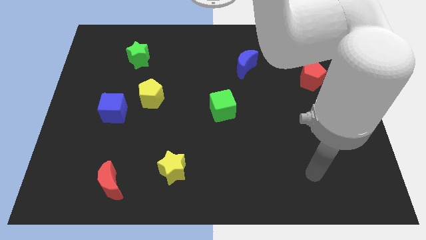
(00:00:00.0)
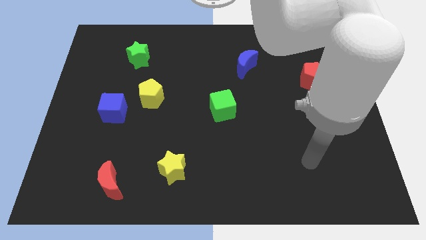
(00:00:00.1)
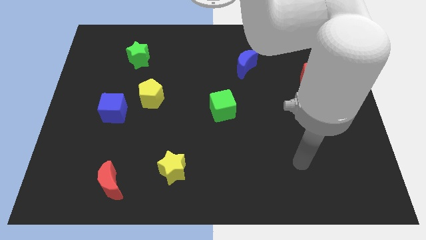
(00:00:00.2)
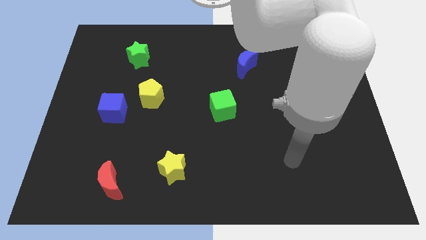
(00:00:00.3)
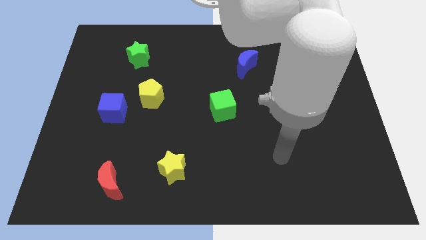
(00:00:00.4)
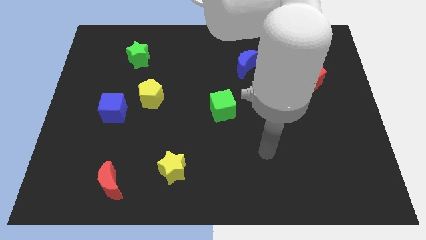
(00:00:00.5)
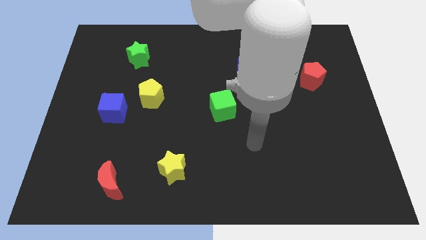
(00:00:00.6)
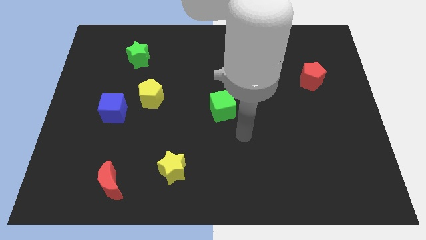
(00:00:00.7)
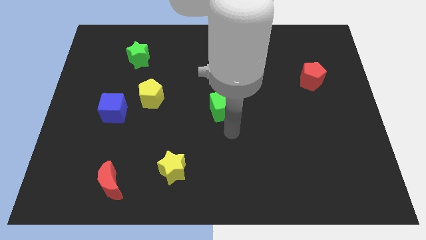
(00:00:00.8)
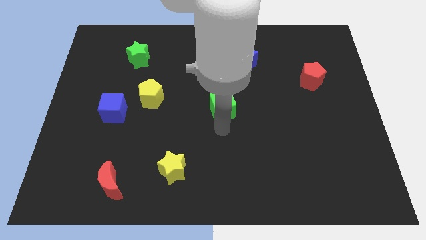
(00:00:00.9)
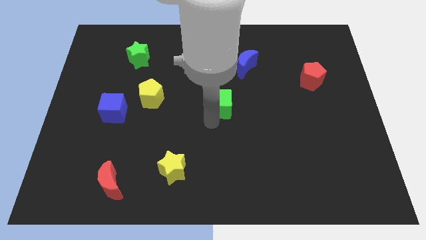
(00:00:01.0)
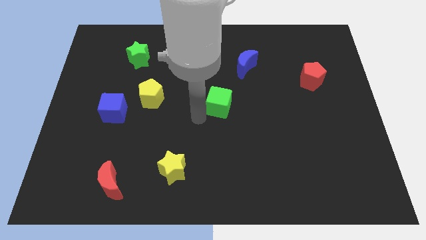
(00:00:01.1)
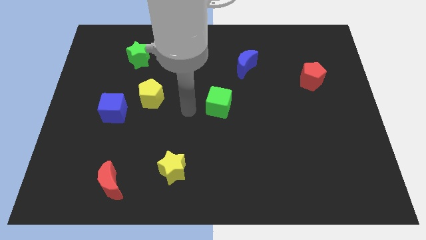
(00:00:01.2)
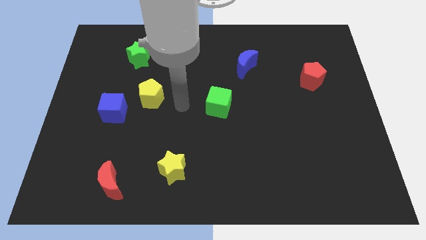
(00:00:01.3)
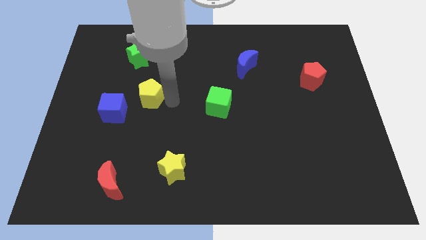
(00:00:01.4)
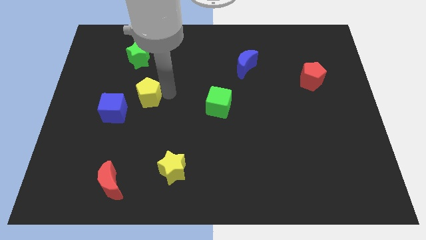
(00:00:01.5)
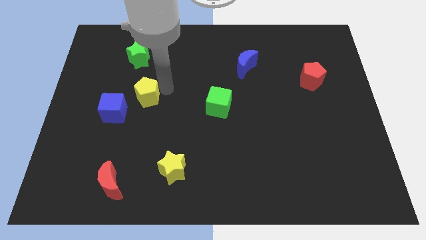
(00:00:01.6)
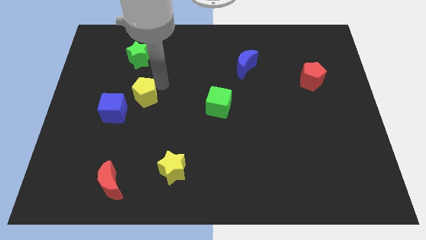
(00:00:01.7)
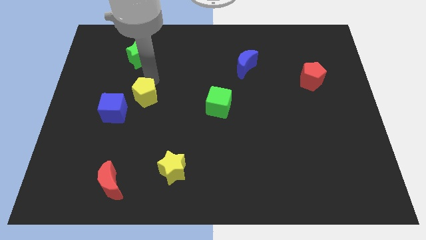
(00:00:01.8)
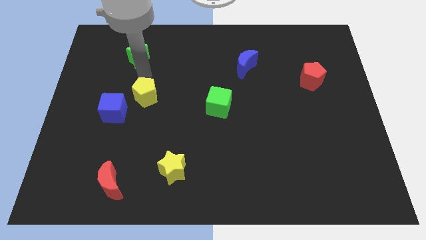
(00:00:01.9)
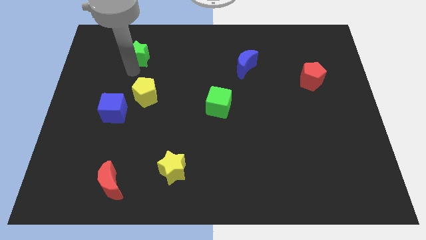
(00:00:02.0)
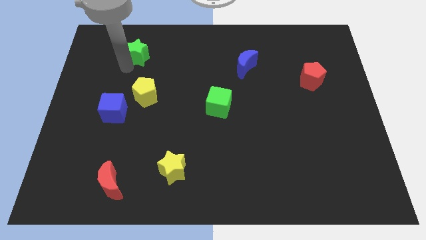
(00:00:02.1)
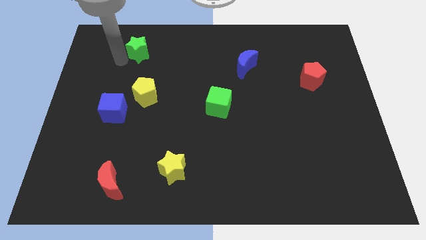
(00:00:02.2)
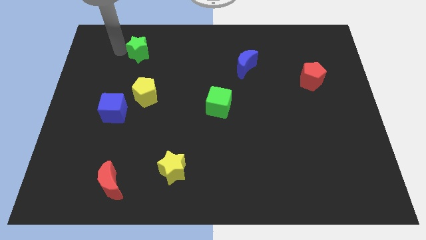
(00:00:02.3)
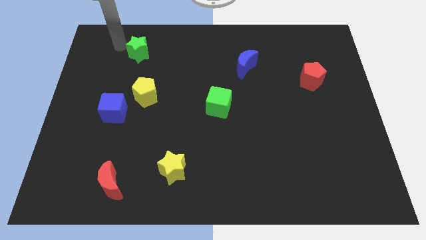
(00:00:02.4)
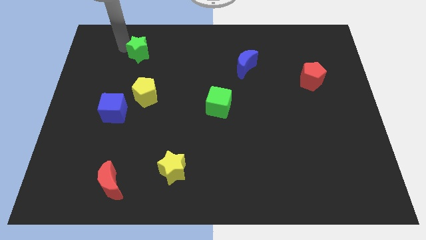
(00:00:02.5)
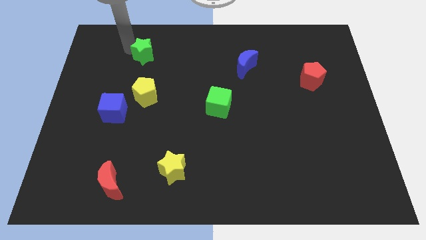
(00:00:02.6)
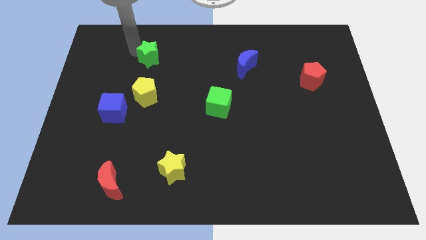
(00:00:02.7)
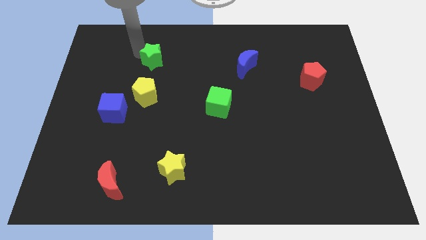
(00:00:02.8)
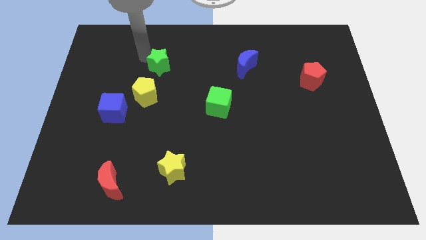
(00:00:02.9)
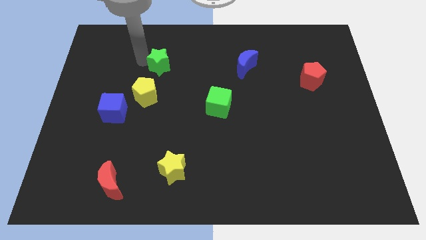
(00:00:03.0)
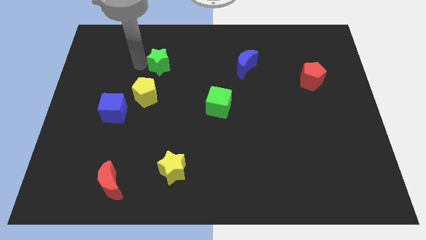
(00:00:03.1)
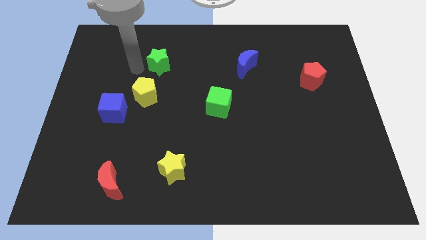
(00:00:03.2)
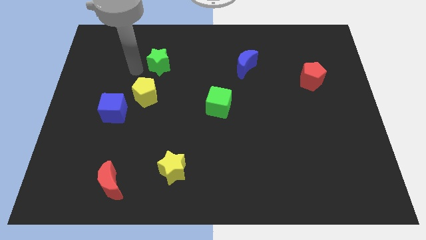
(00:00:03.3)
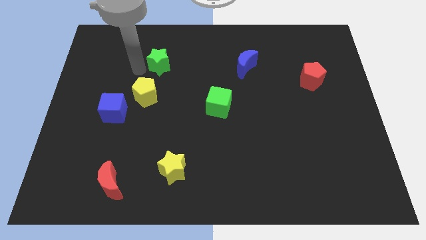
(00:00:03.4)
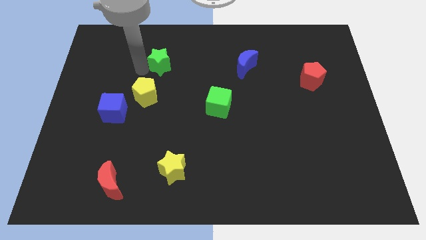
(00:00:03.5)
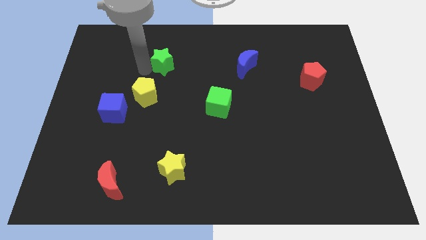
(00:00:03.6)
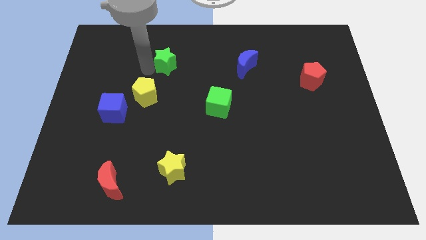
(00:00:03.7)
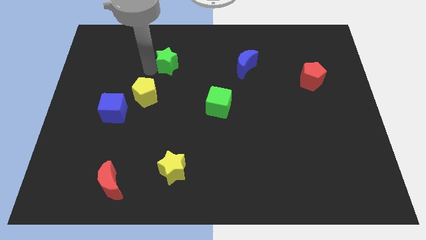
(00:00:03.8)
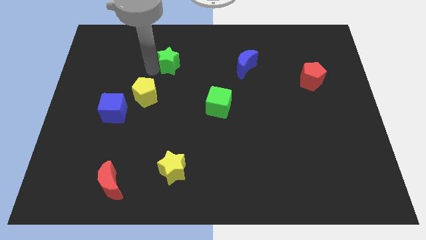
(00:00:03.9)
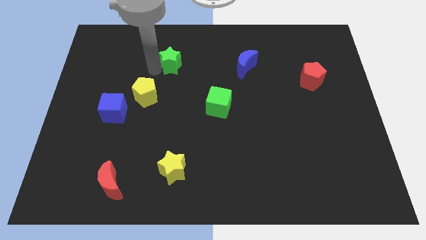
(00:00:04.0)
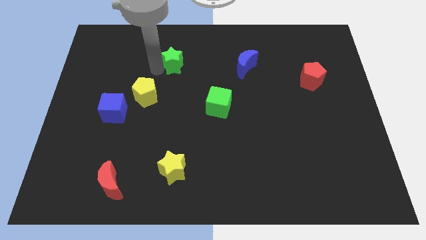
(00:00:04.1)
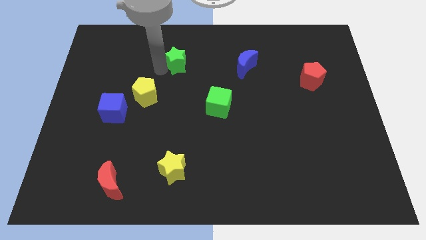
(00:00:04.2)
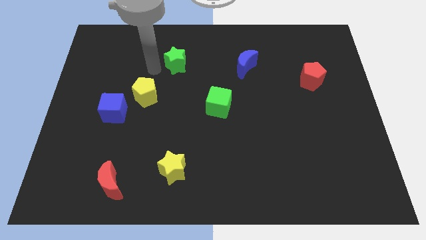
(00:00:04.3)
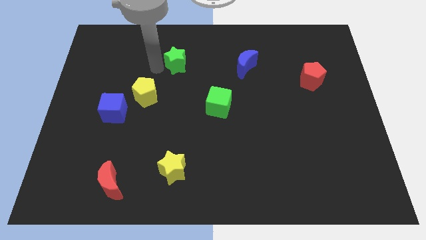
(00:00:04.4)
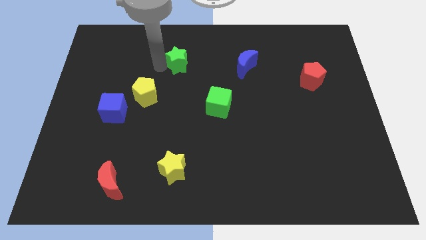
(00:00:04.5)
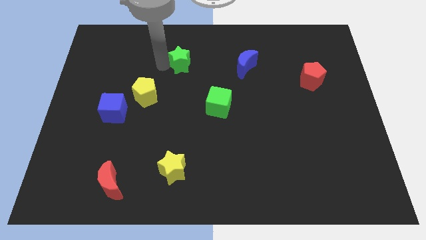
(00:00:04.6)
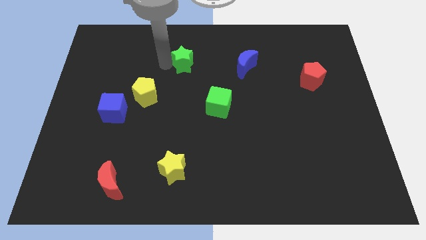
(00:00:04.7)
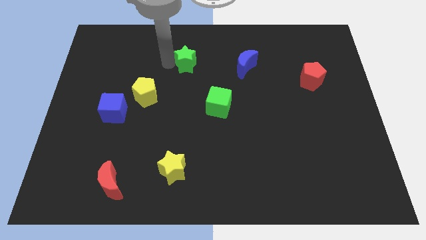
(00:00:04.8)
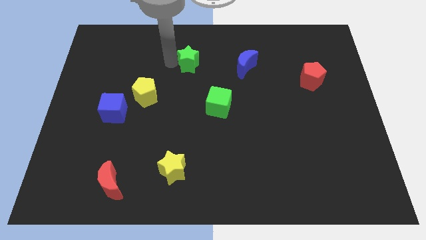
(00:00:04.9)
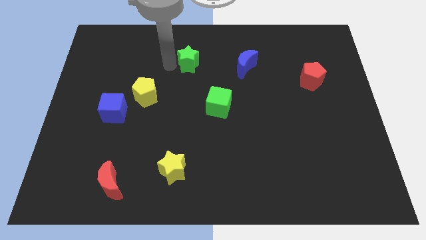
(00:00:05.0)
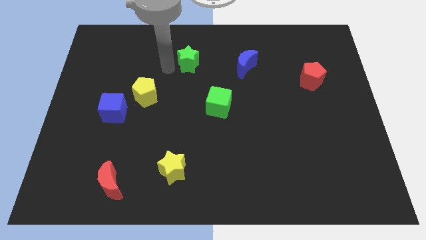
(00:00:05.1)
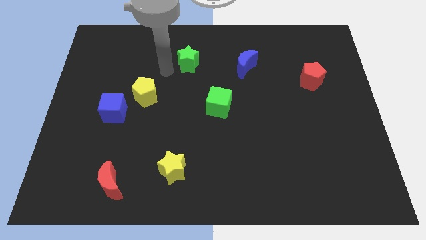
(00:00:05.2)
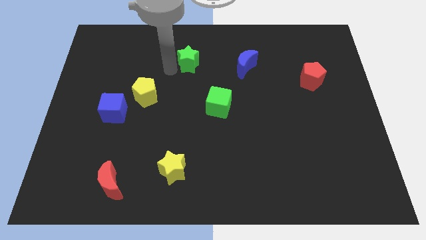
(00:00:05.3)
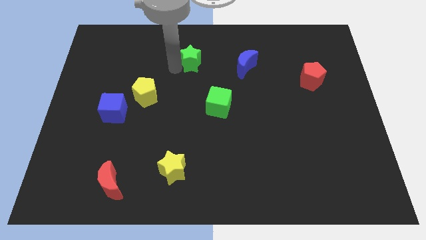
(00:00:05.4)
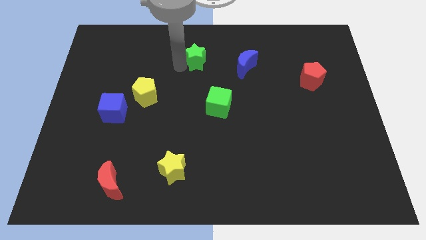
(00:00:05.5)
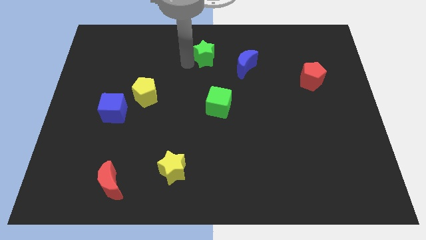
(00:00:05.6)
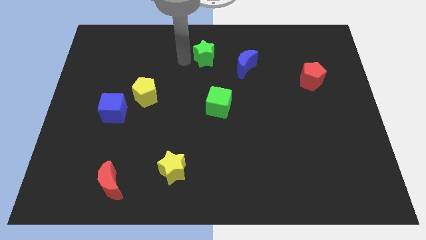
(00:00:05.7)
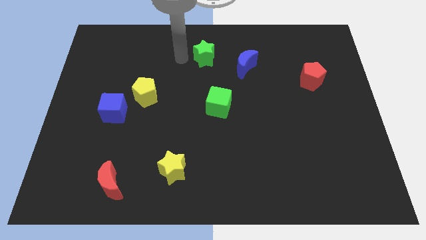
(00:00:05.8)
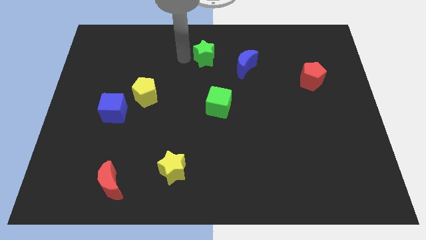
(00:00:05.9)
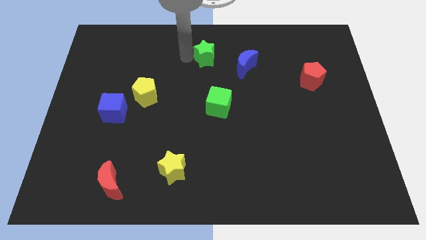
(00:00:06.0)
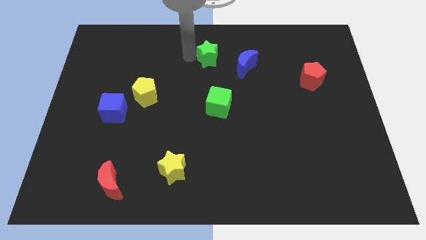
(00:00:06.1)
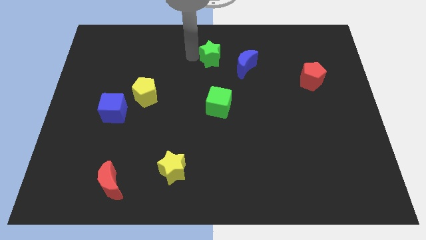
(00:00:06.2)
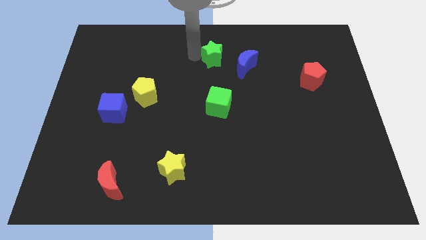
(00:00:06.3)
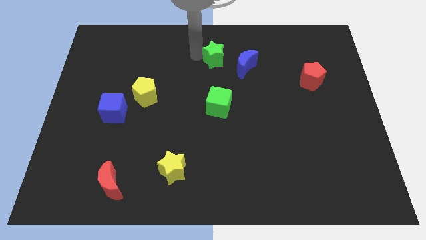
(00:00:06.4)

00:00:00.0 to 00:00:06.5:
push the green star to the right

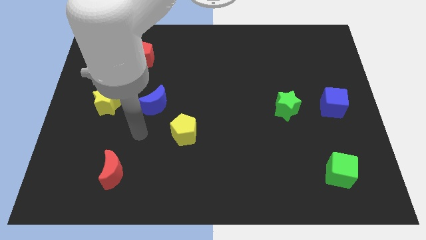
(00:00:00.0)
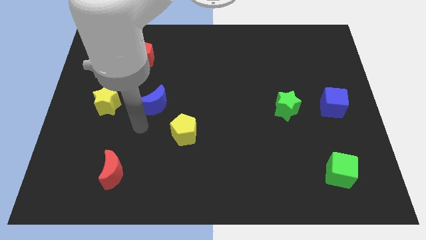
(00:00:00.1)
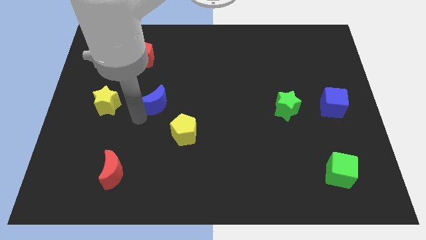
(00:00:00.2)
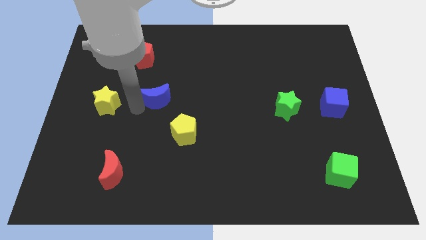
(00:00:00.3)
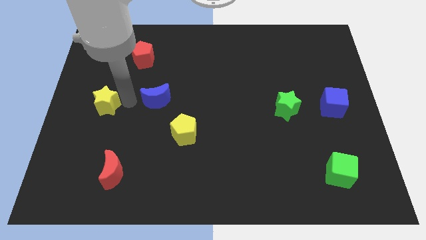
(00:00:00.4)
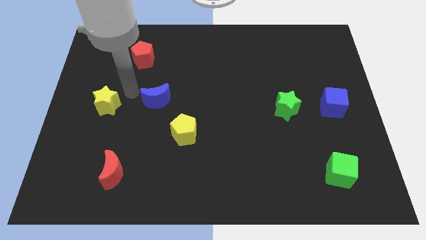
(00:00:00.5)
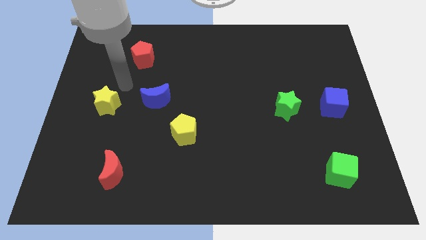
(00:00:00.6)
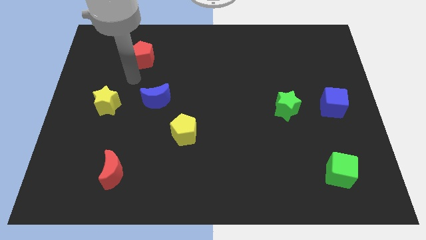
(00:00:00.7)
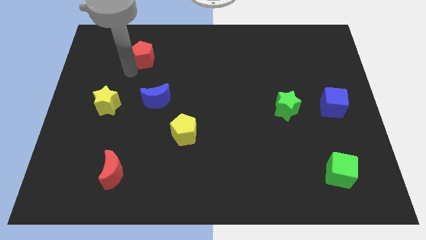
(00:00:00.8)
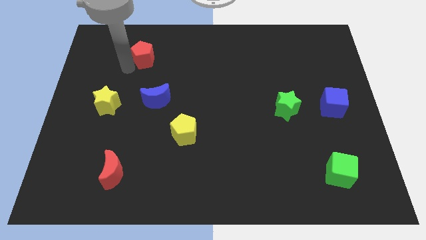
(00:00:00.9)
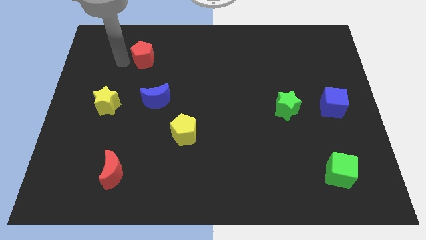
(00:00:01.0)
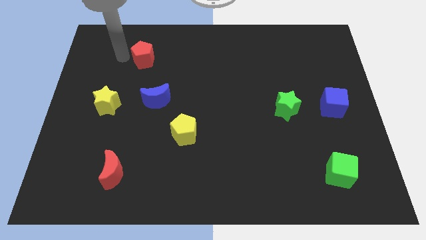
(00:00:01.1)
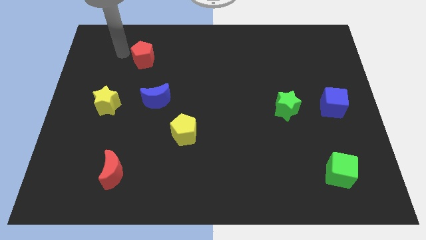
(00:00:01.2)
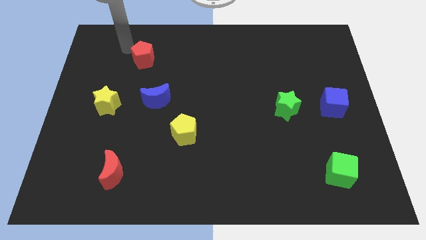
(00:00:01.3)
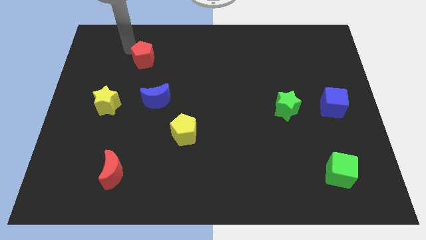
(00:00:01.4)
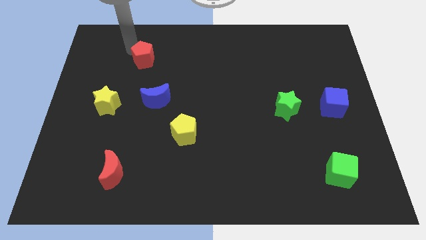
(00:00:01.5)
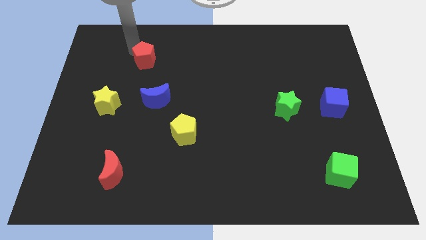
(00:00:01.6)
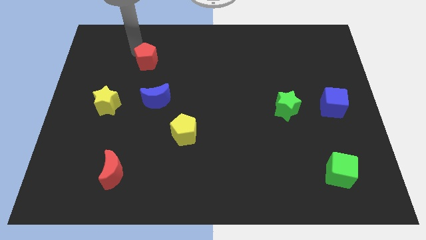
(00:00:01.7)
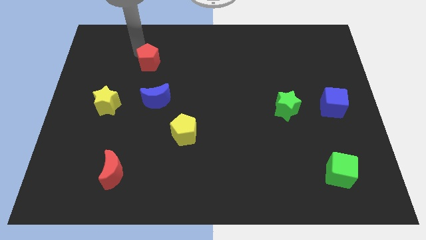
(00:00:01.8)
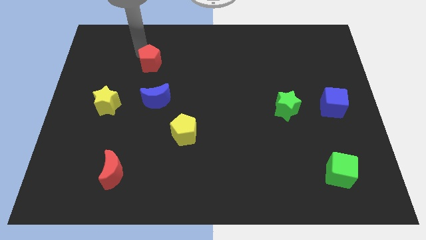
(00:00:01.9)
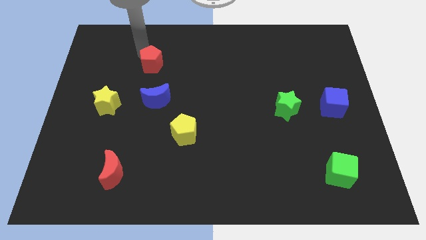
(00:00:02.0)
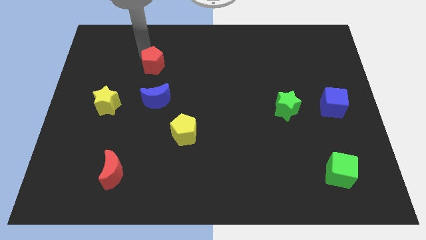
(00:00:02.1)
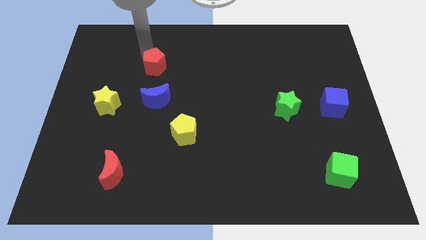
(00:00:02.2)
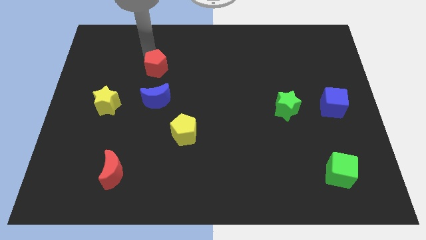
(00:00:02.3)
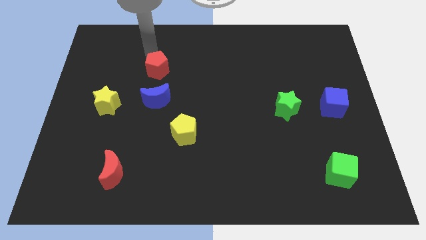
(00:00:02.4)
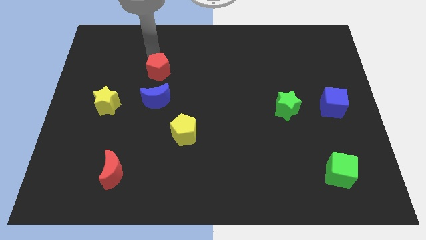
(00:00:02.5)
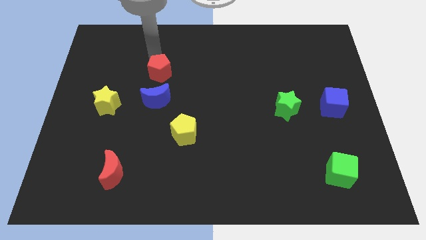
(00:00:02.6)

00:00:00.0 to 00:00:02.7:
push the red pentagon downwards and then right slightly
